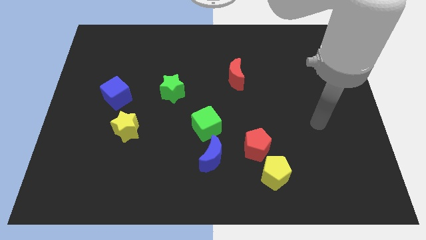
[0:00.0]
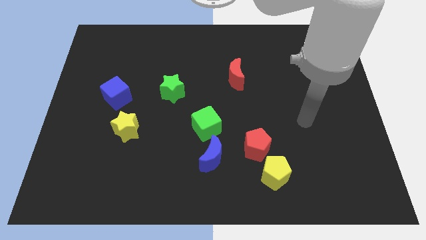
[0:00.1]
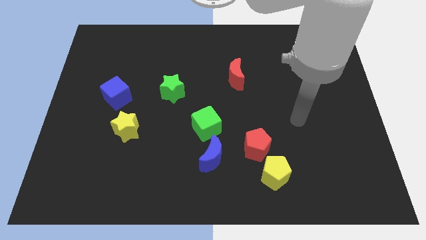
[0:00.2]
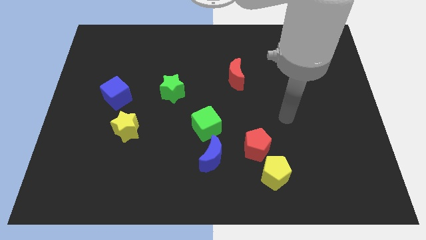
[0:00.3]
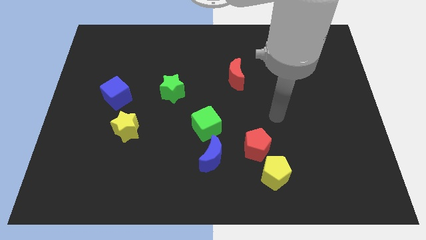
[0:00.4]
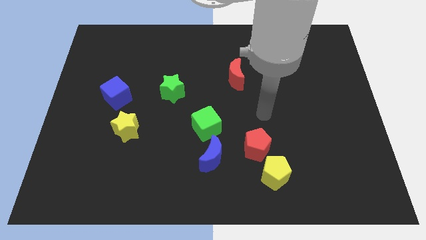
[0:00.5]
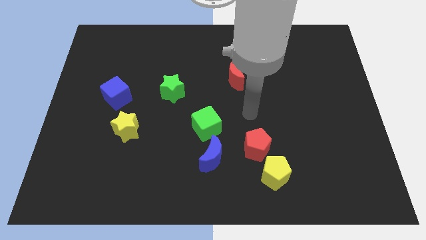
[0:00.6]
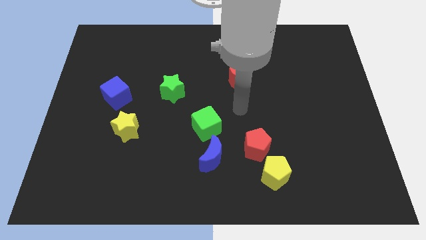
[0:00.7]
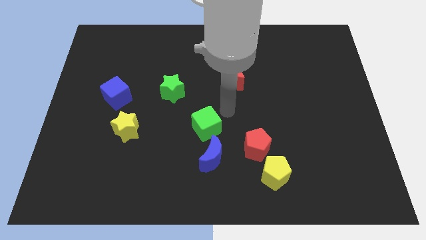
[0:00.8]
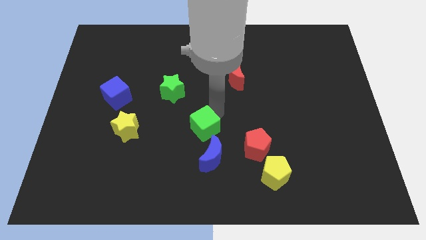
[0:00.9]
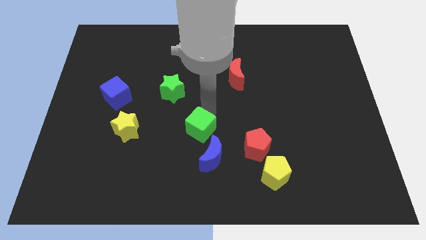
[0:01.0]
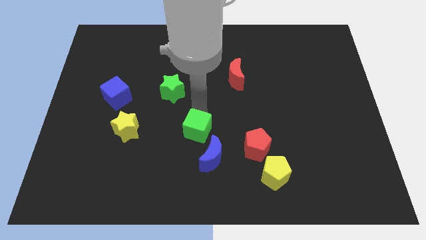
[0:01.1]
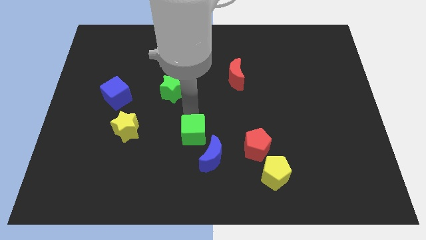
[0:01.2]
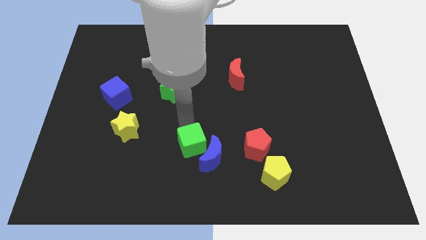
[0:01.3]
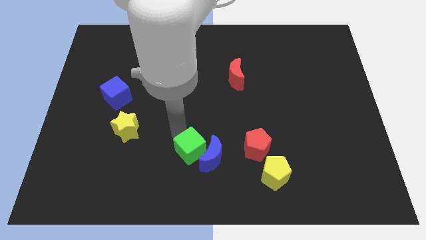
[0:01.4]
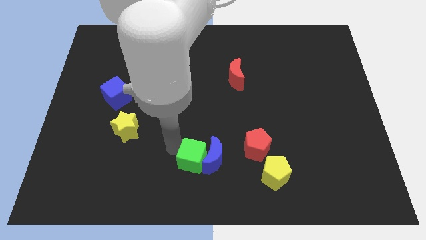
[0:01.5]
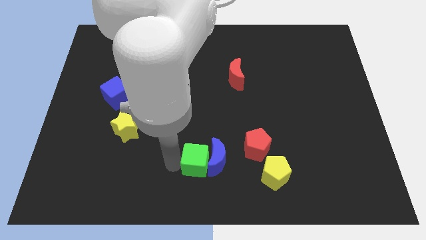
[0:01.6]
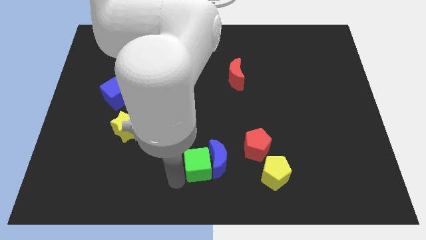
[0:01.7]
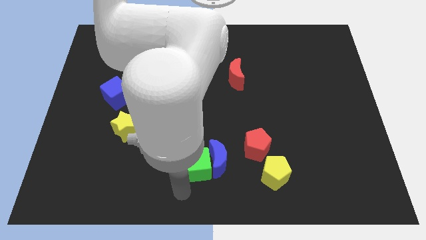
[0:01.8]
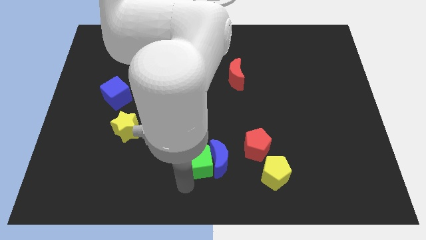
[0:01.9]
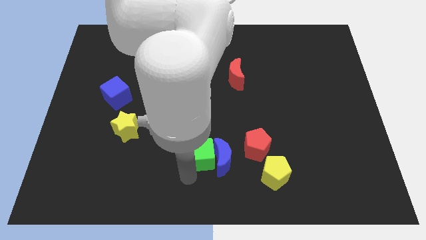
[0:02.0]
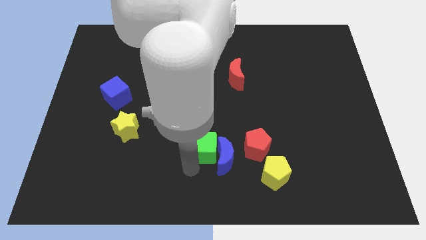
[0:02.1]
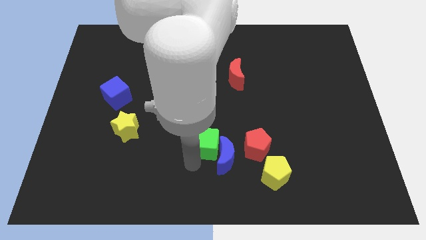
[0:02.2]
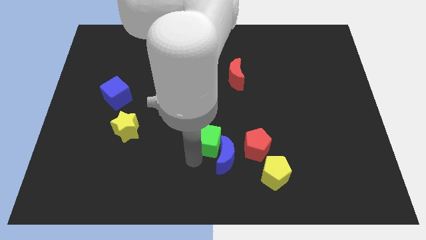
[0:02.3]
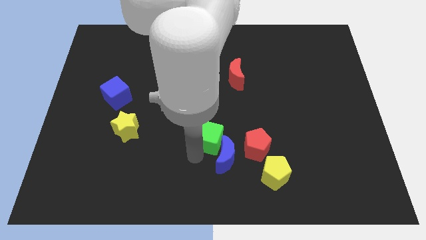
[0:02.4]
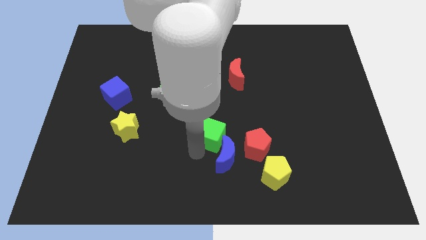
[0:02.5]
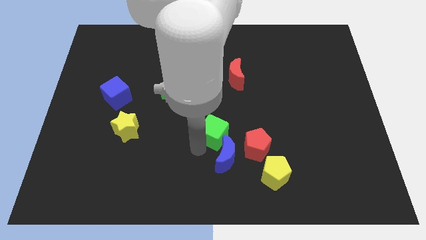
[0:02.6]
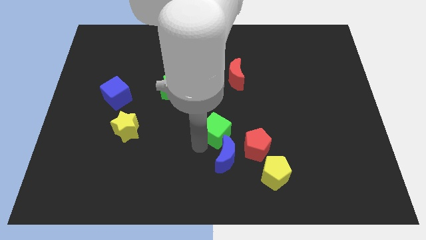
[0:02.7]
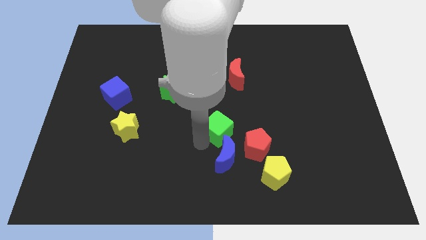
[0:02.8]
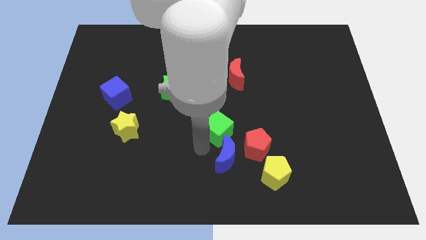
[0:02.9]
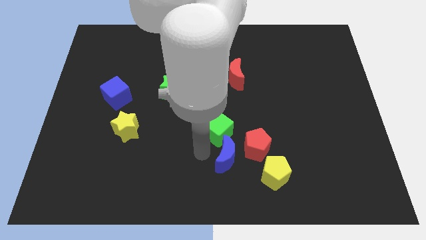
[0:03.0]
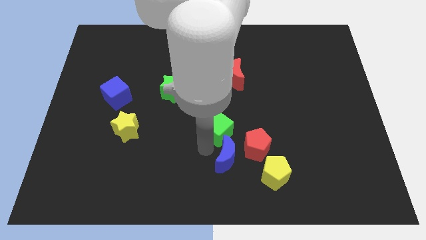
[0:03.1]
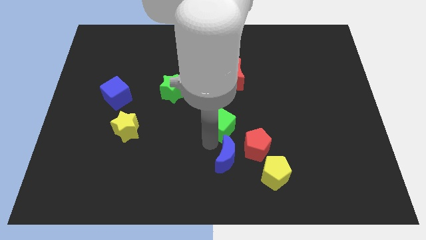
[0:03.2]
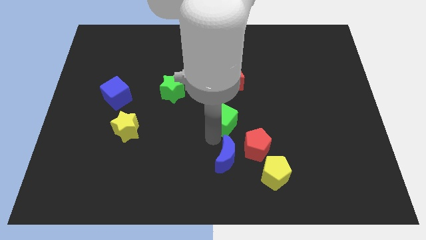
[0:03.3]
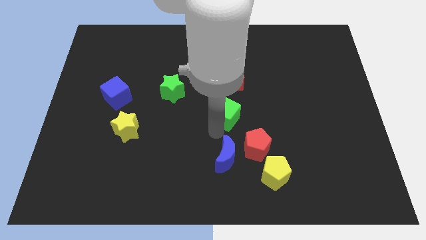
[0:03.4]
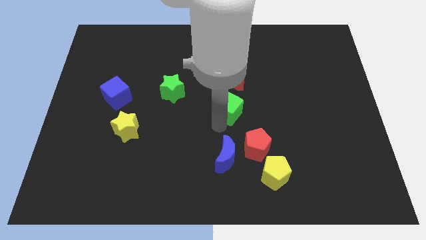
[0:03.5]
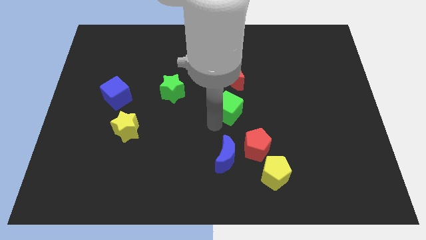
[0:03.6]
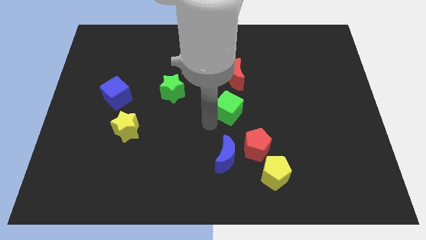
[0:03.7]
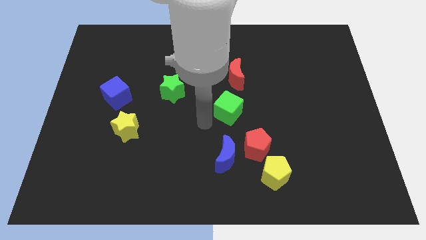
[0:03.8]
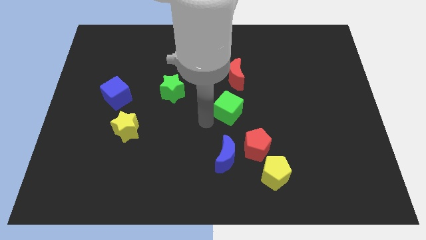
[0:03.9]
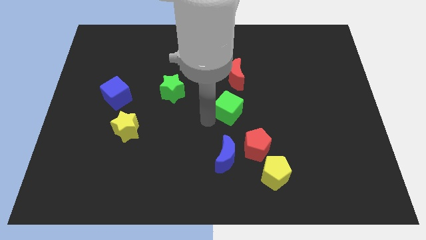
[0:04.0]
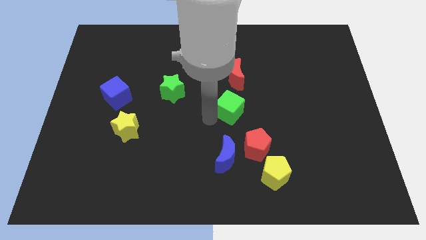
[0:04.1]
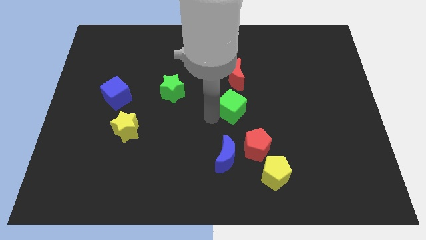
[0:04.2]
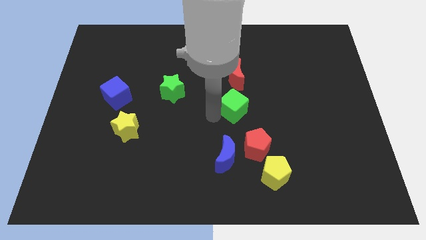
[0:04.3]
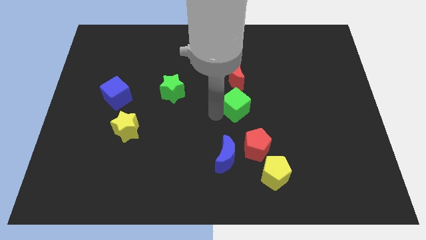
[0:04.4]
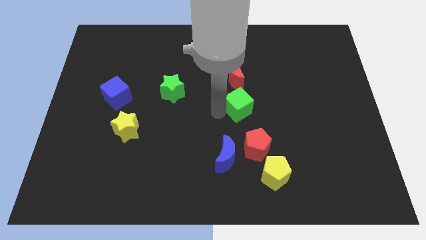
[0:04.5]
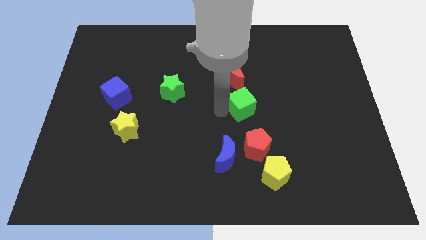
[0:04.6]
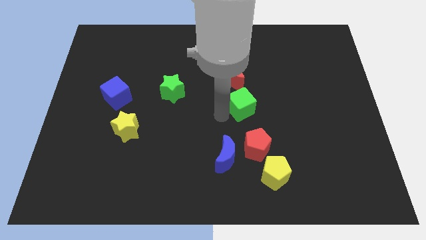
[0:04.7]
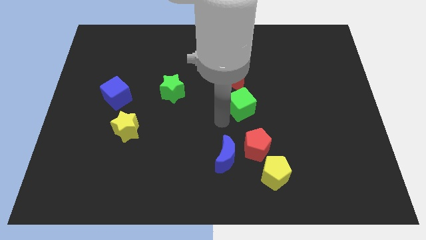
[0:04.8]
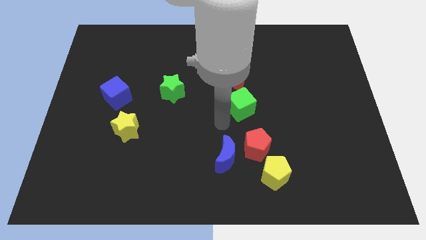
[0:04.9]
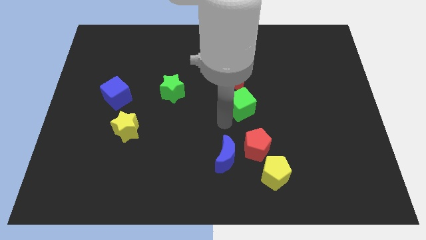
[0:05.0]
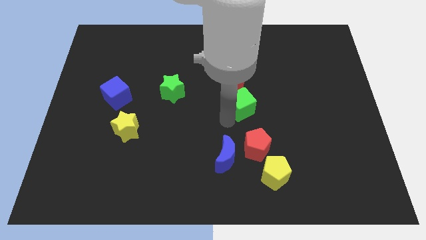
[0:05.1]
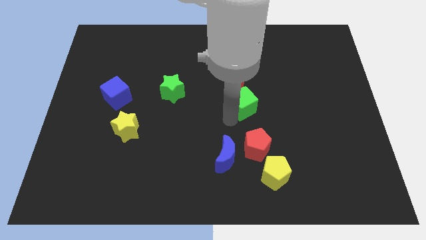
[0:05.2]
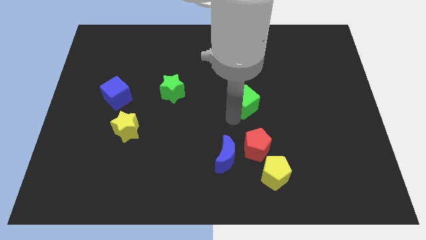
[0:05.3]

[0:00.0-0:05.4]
push the green cube diagonally down and to the right of the red moon

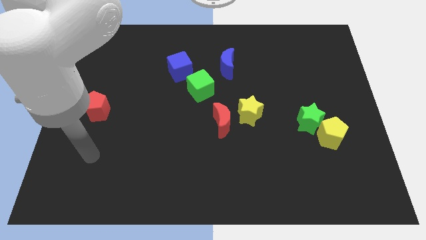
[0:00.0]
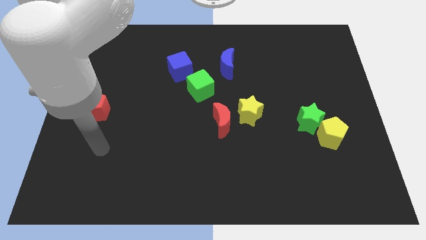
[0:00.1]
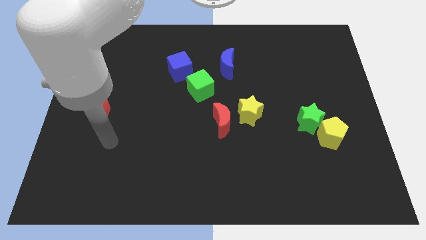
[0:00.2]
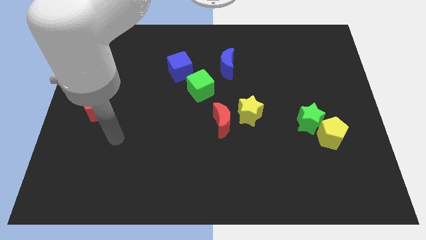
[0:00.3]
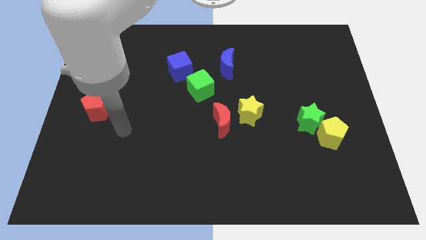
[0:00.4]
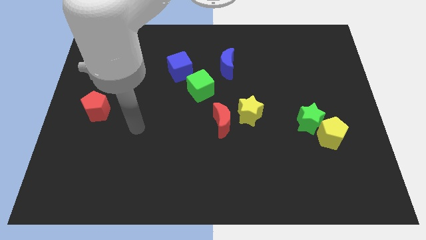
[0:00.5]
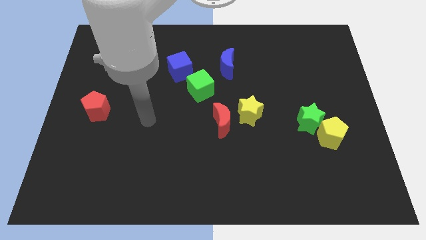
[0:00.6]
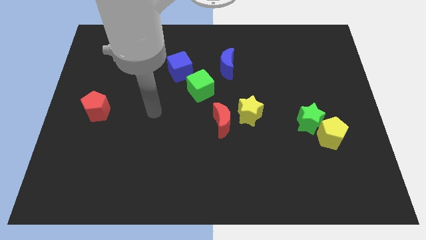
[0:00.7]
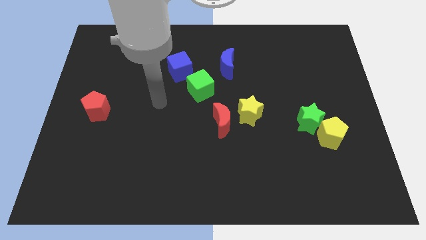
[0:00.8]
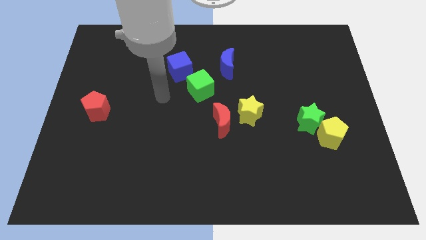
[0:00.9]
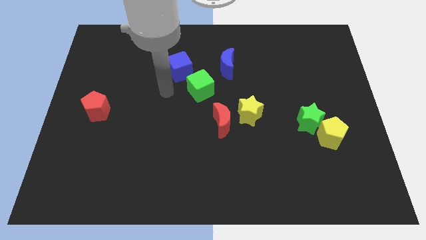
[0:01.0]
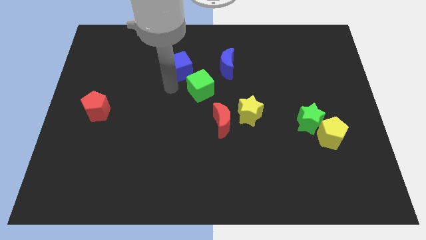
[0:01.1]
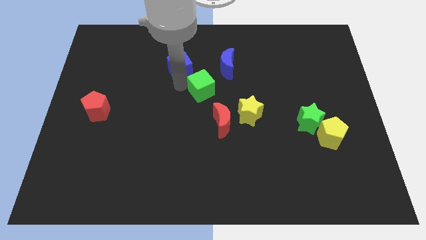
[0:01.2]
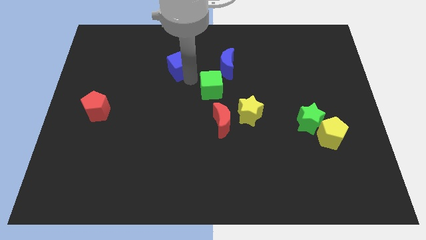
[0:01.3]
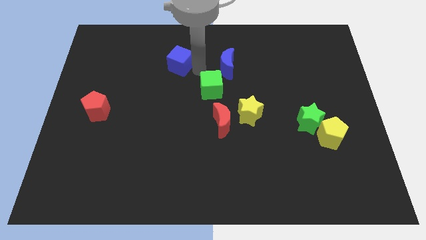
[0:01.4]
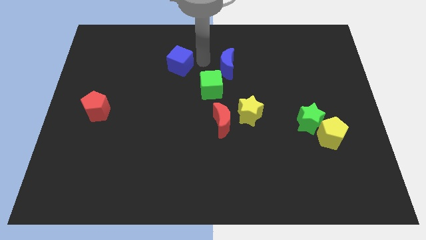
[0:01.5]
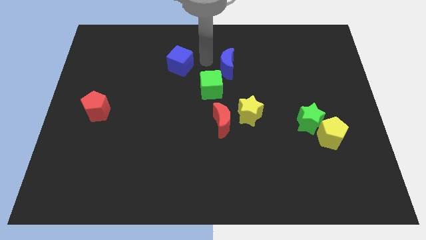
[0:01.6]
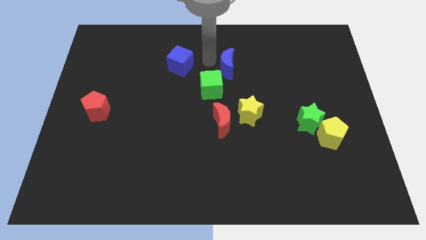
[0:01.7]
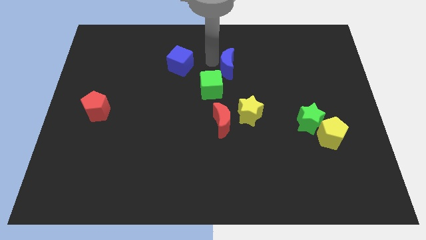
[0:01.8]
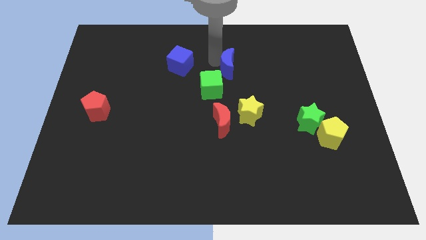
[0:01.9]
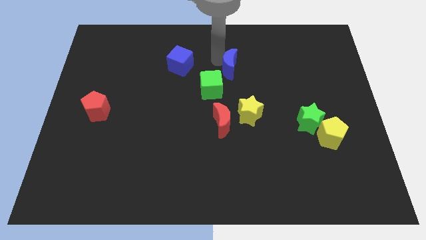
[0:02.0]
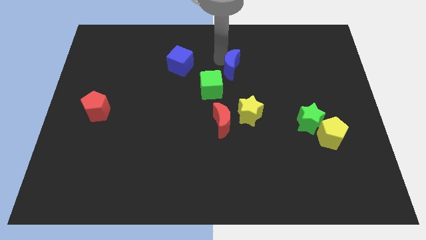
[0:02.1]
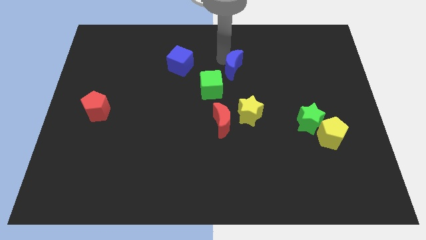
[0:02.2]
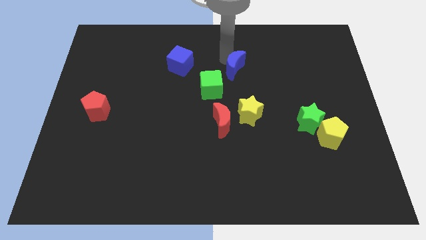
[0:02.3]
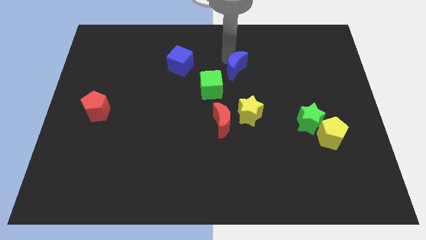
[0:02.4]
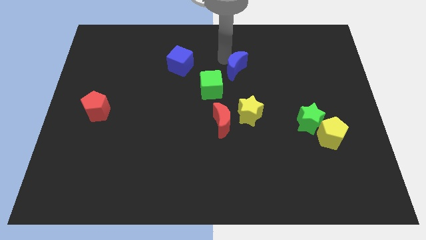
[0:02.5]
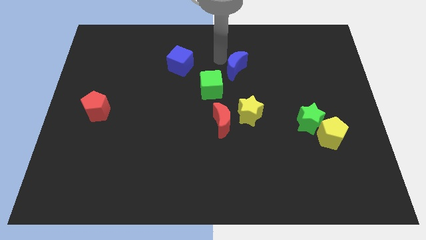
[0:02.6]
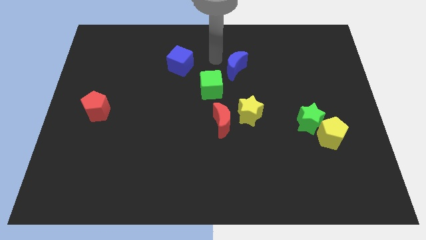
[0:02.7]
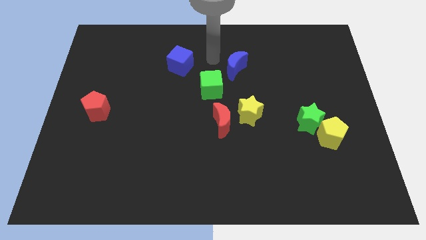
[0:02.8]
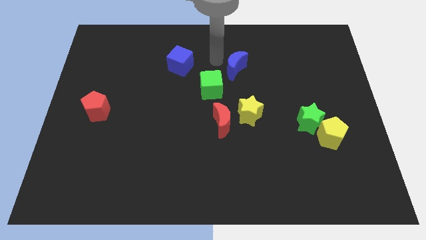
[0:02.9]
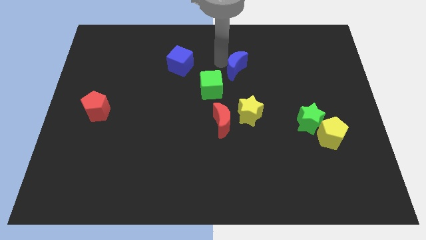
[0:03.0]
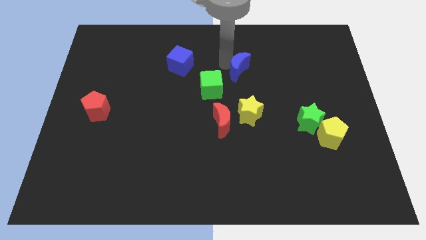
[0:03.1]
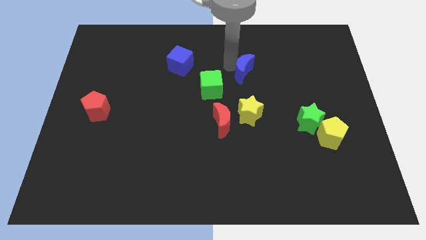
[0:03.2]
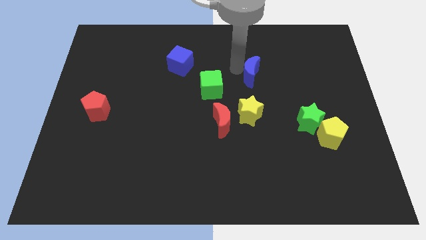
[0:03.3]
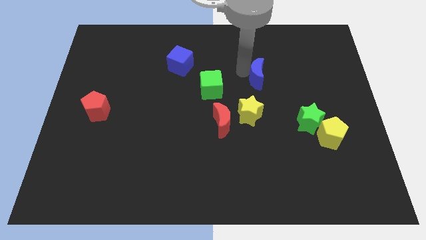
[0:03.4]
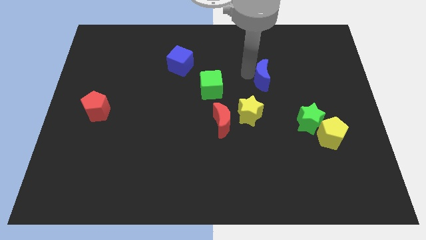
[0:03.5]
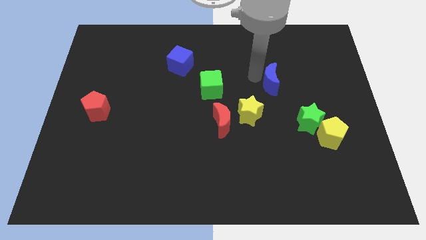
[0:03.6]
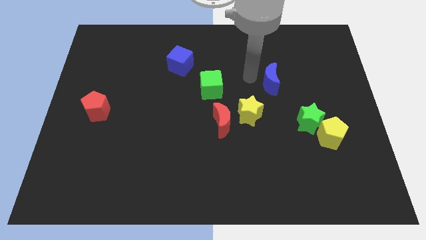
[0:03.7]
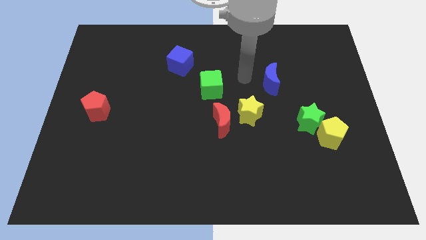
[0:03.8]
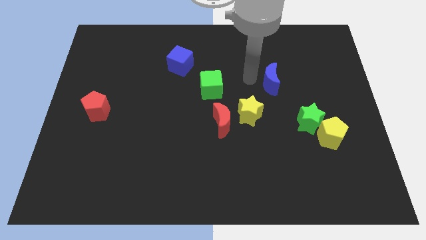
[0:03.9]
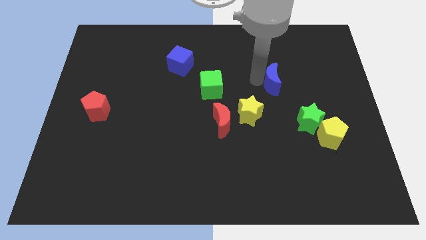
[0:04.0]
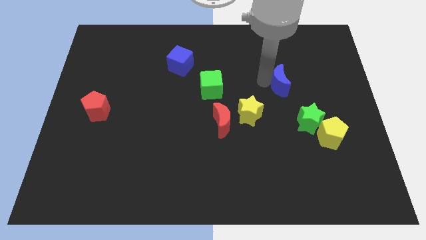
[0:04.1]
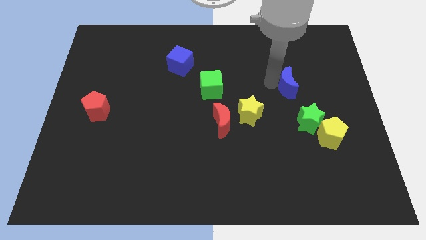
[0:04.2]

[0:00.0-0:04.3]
push the blue moon to the top of the green star
